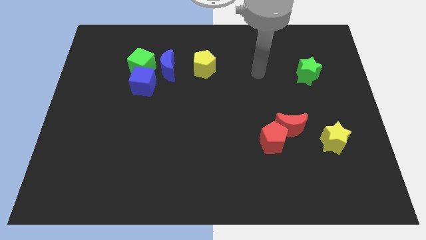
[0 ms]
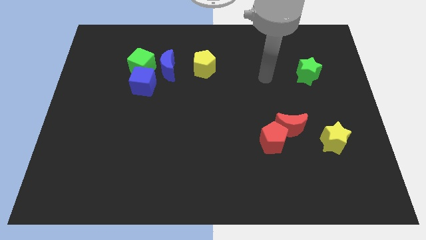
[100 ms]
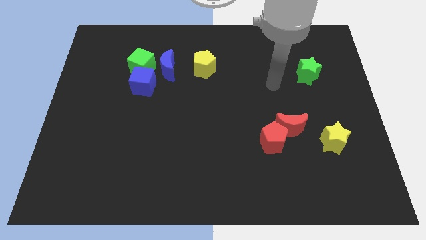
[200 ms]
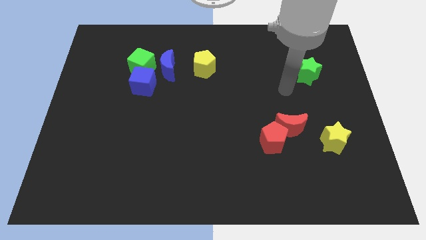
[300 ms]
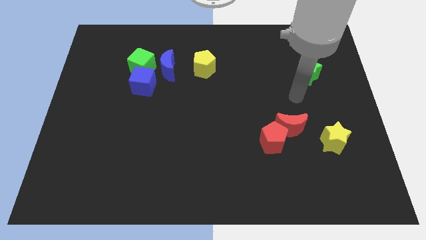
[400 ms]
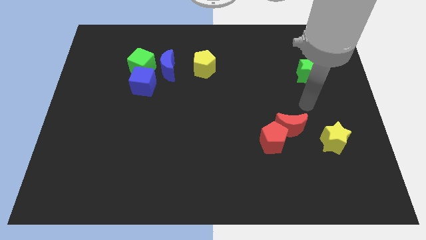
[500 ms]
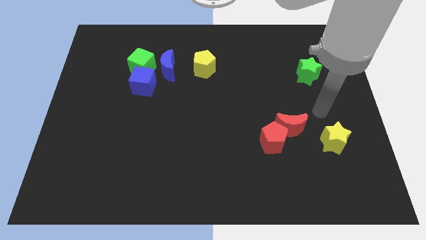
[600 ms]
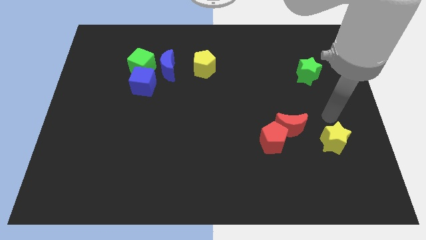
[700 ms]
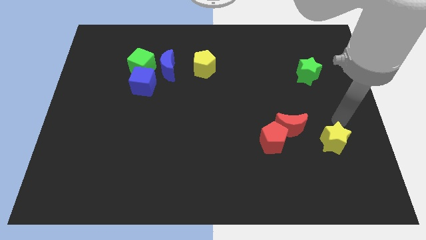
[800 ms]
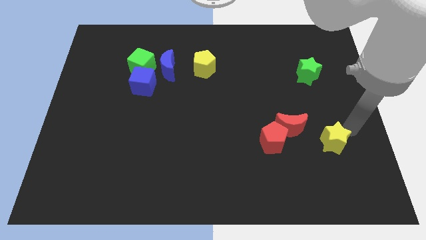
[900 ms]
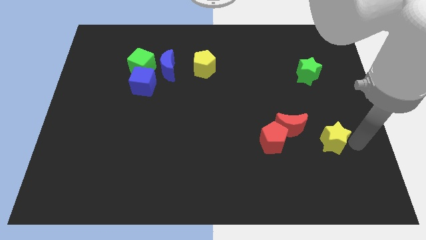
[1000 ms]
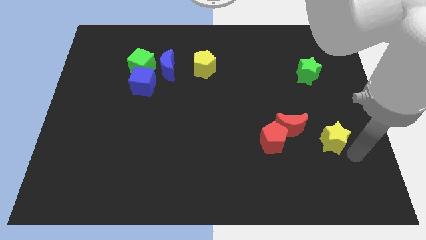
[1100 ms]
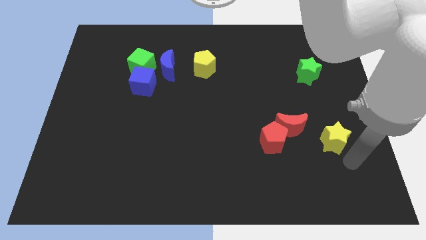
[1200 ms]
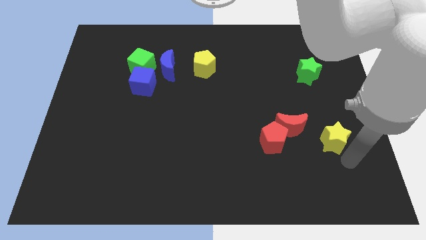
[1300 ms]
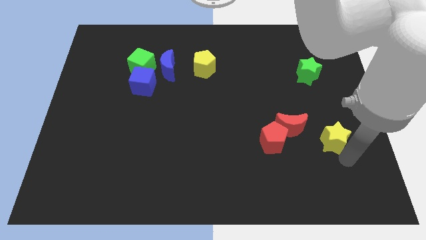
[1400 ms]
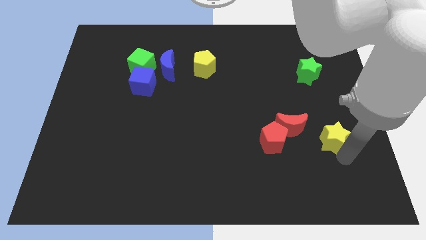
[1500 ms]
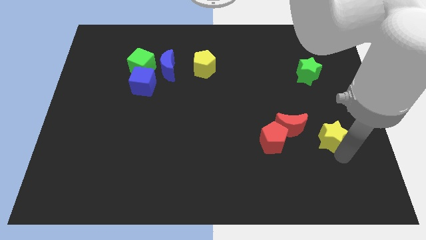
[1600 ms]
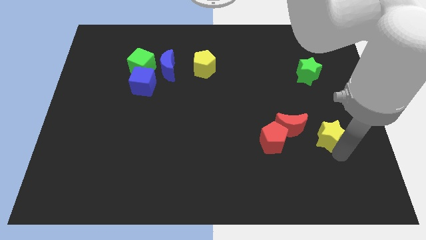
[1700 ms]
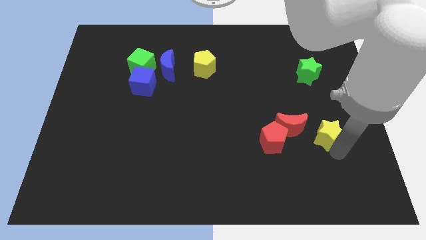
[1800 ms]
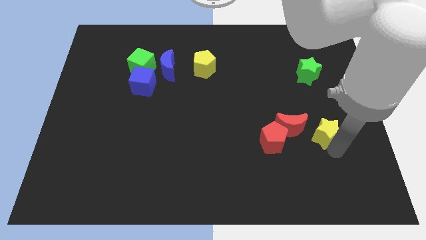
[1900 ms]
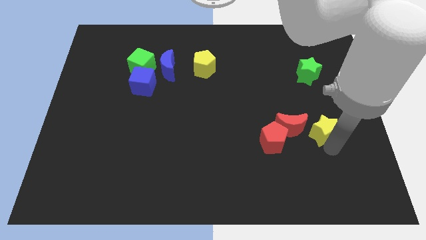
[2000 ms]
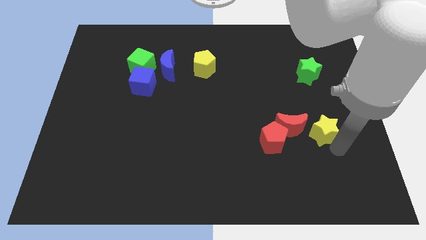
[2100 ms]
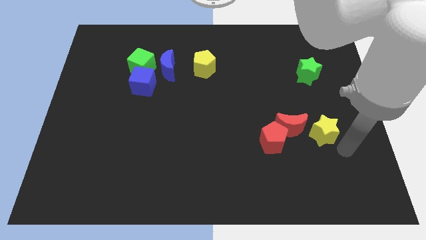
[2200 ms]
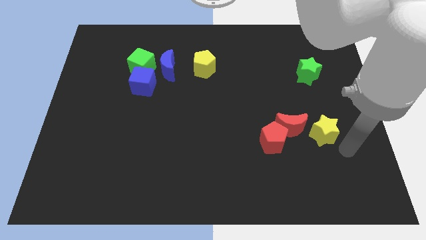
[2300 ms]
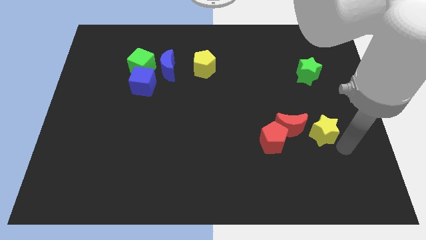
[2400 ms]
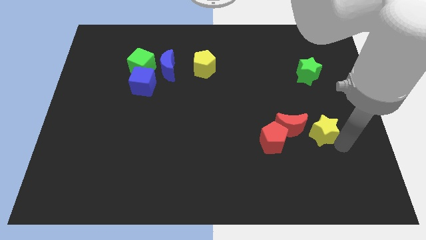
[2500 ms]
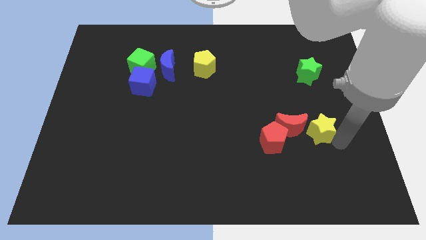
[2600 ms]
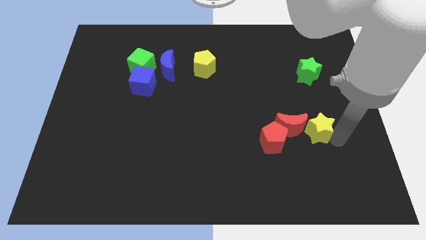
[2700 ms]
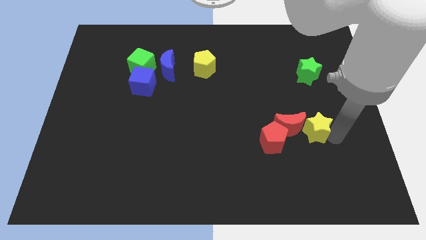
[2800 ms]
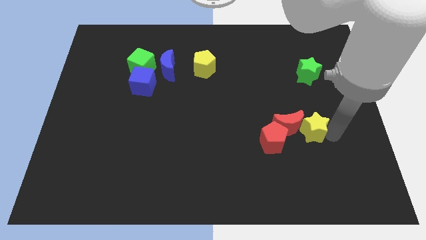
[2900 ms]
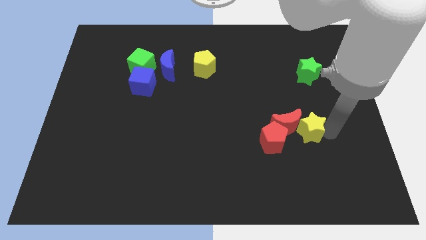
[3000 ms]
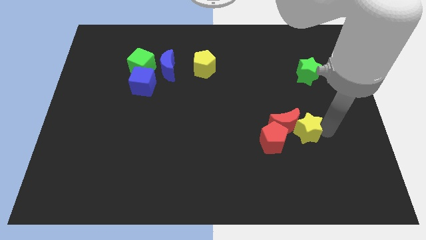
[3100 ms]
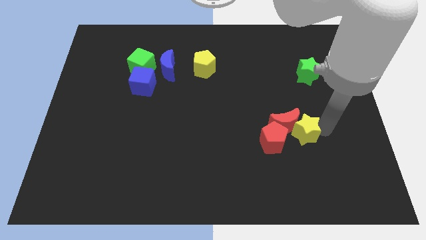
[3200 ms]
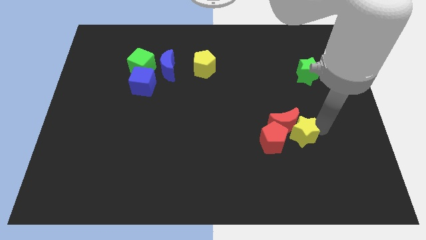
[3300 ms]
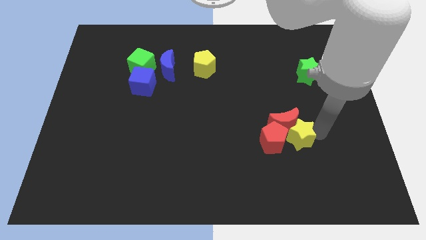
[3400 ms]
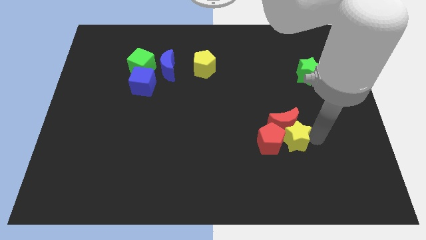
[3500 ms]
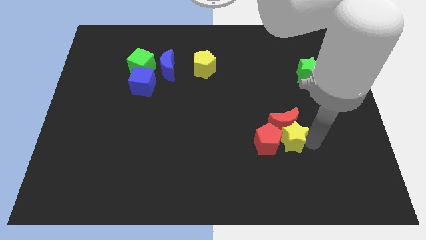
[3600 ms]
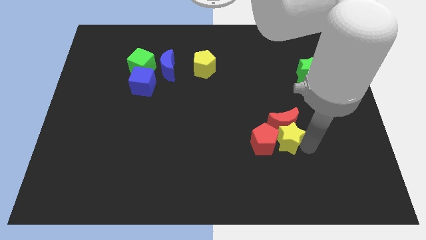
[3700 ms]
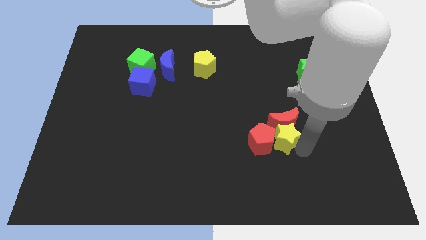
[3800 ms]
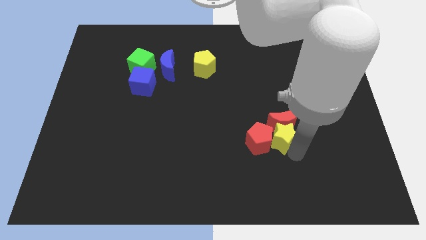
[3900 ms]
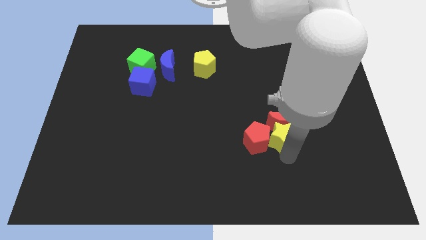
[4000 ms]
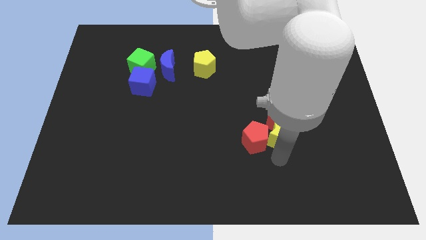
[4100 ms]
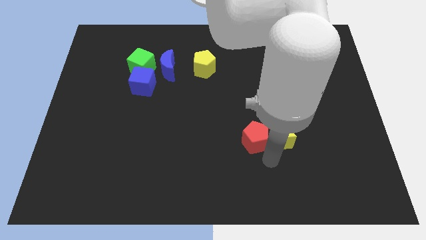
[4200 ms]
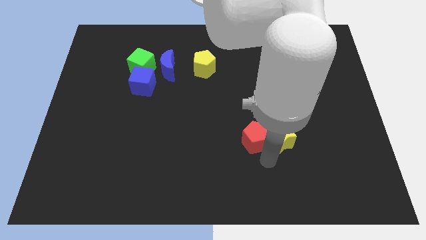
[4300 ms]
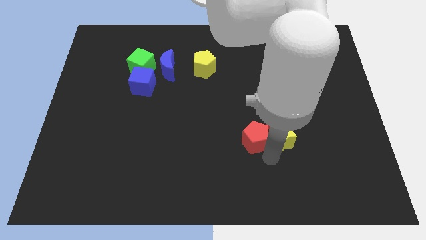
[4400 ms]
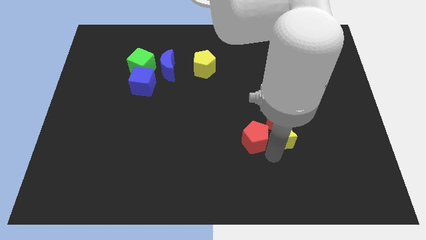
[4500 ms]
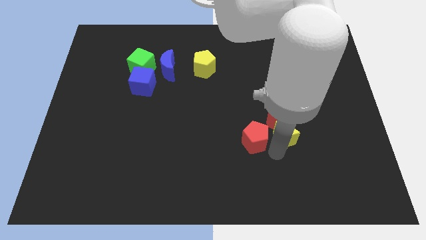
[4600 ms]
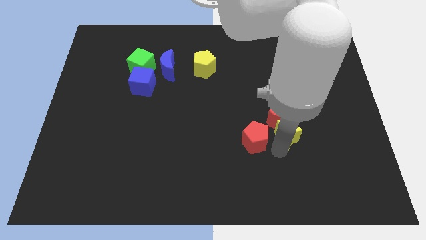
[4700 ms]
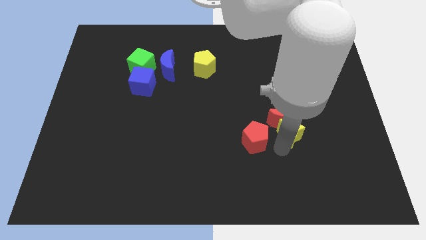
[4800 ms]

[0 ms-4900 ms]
move the yellow star diagonally up and left a little bit

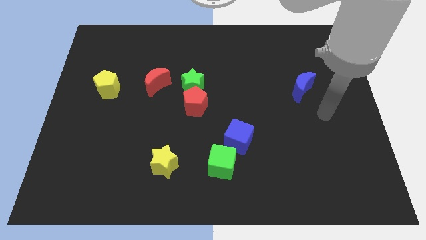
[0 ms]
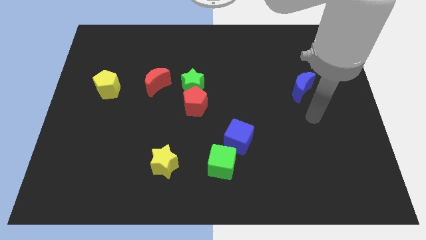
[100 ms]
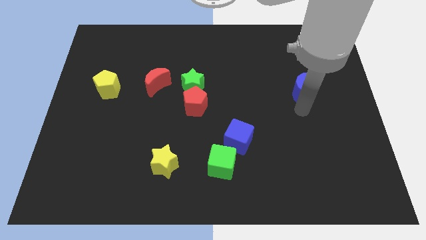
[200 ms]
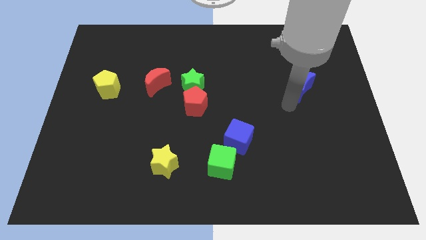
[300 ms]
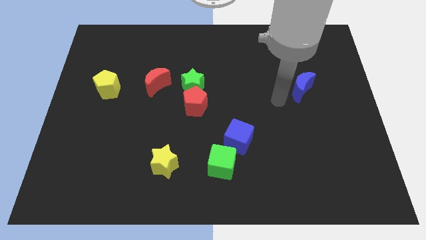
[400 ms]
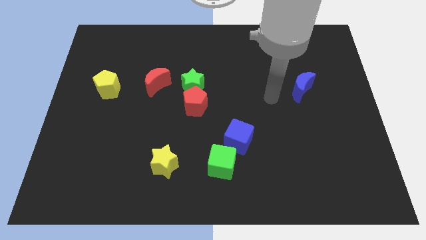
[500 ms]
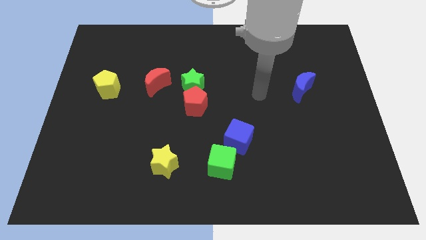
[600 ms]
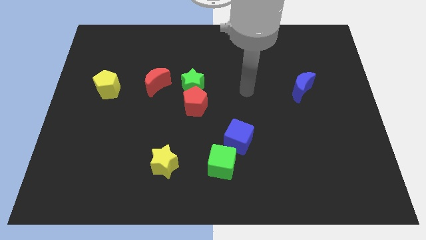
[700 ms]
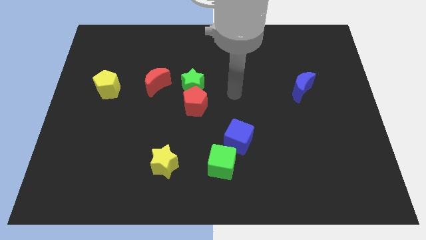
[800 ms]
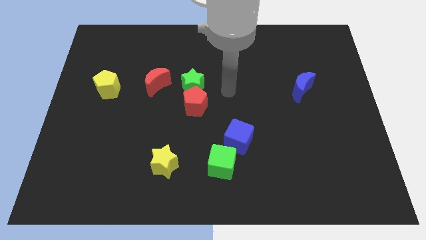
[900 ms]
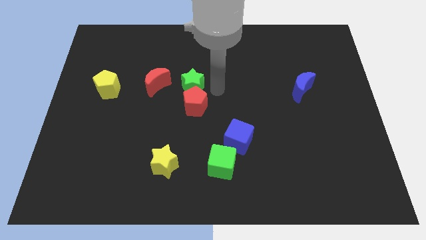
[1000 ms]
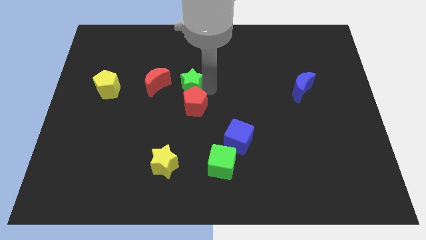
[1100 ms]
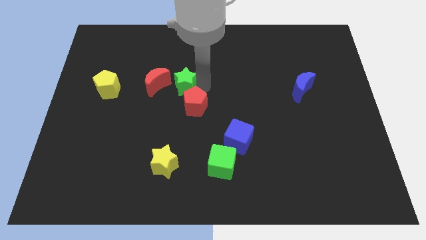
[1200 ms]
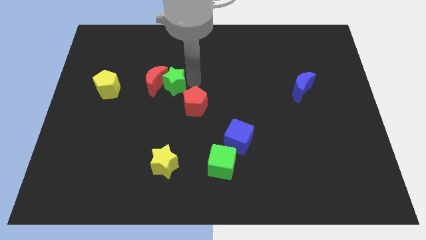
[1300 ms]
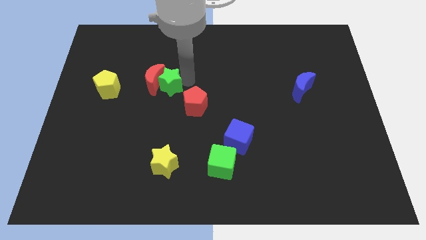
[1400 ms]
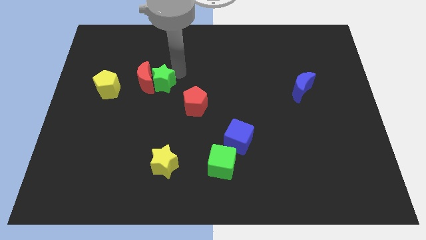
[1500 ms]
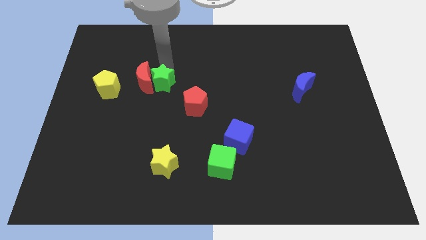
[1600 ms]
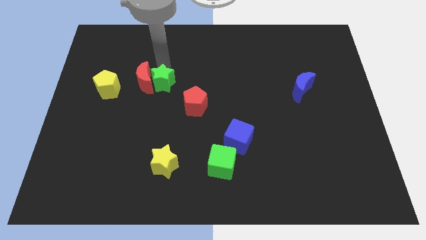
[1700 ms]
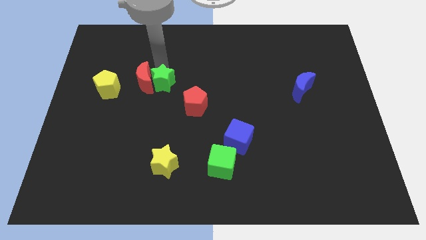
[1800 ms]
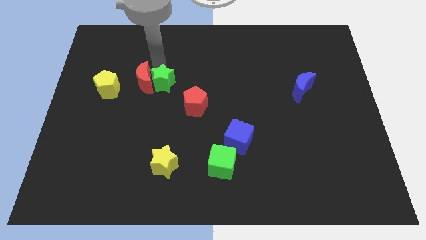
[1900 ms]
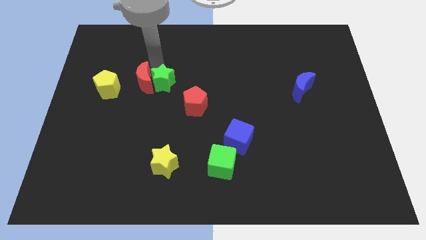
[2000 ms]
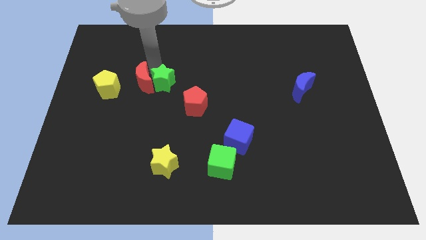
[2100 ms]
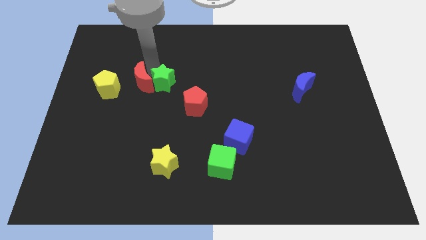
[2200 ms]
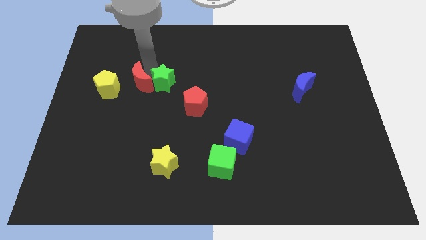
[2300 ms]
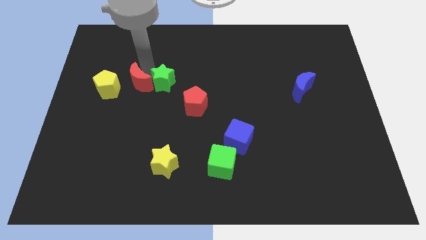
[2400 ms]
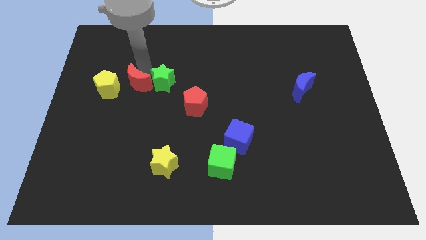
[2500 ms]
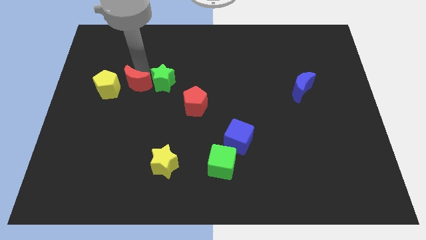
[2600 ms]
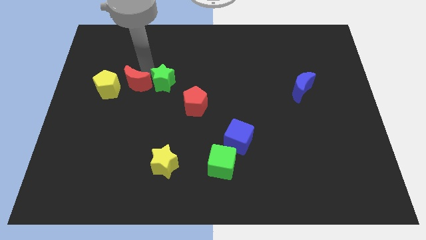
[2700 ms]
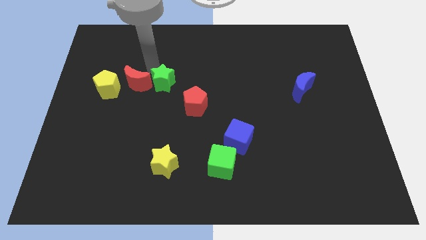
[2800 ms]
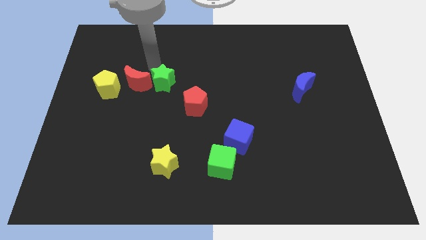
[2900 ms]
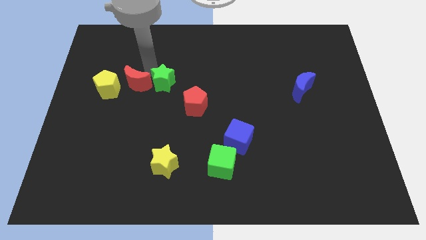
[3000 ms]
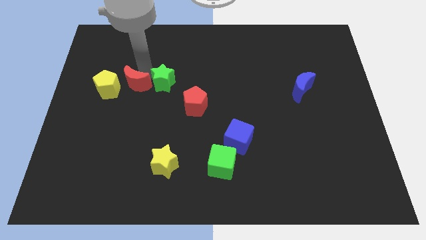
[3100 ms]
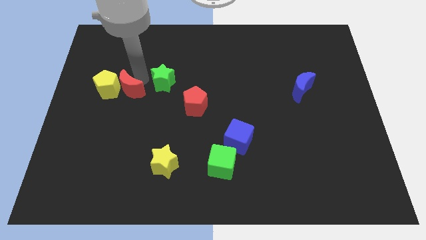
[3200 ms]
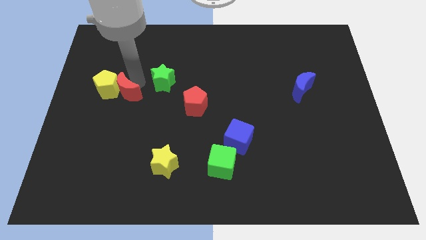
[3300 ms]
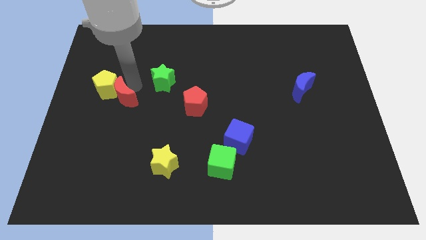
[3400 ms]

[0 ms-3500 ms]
slightly slide the red moon down and to the left
